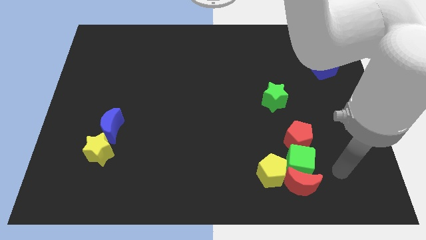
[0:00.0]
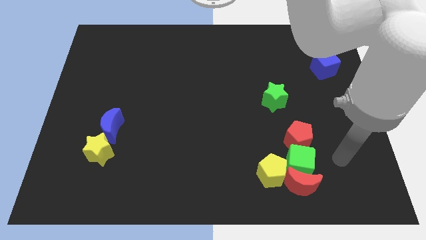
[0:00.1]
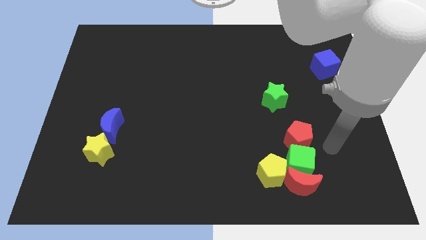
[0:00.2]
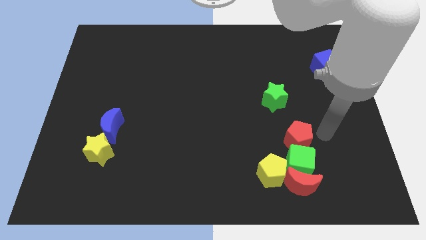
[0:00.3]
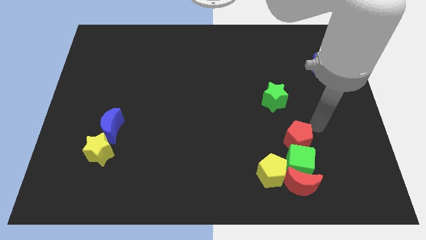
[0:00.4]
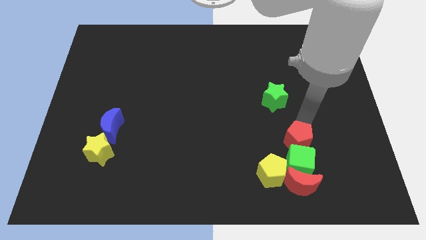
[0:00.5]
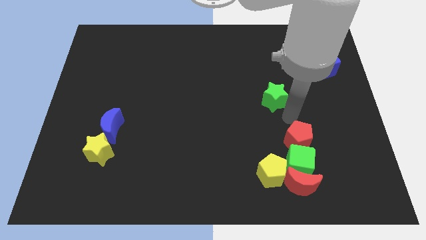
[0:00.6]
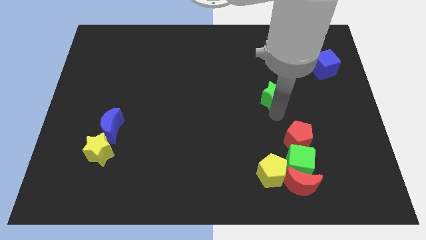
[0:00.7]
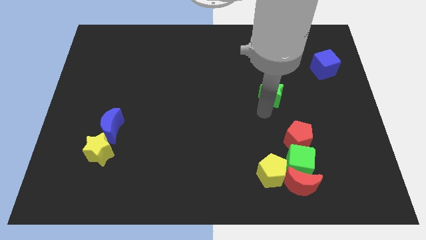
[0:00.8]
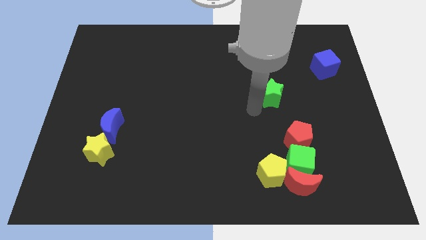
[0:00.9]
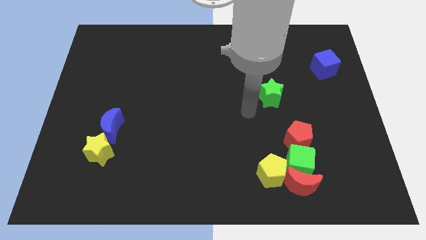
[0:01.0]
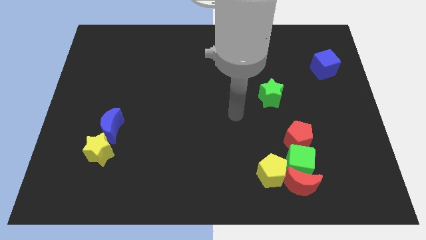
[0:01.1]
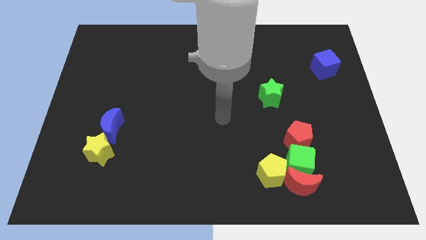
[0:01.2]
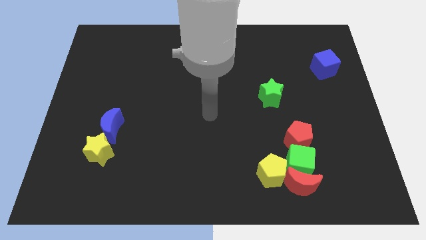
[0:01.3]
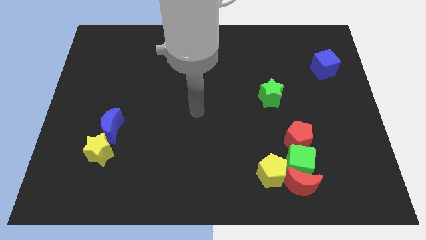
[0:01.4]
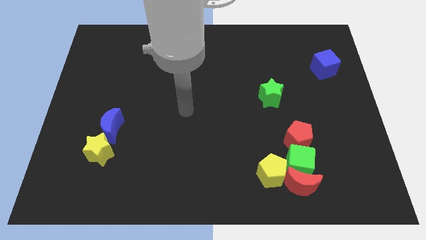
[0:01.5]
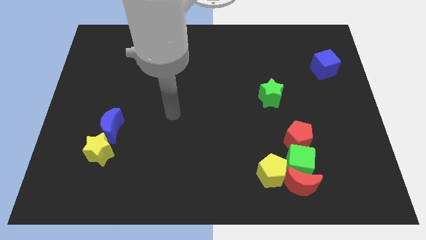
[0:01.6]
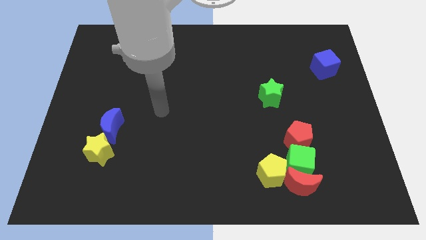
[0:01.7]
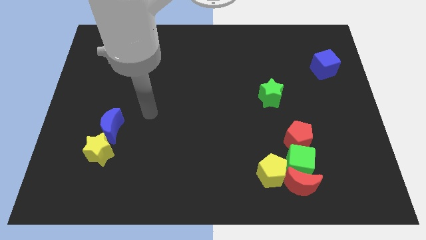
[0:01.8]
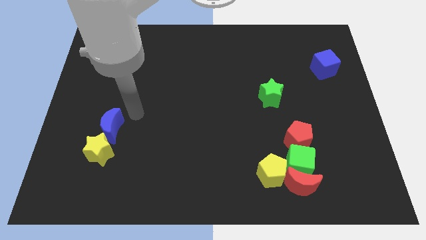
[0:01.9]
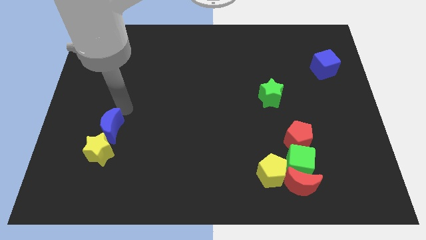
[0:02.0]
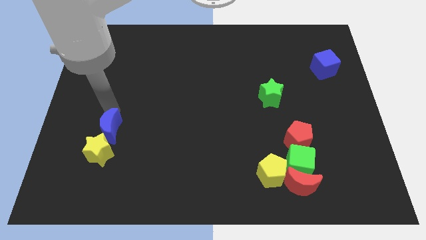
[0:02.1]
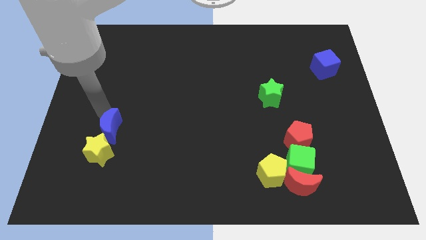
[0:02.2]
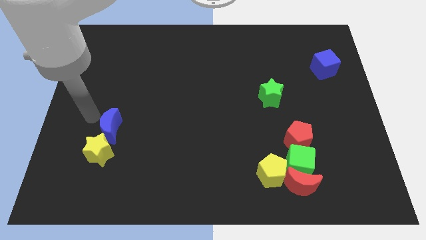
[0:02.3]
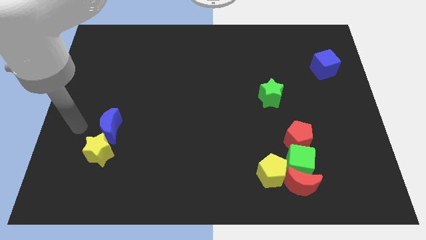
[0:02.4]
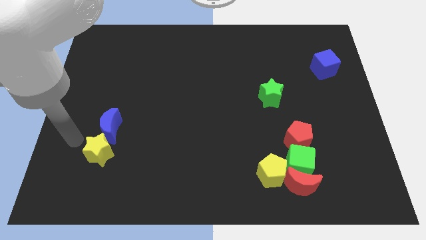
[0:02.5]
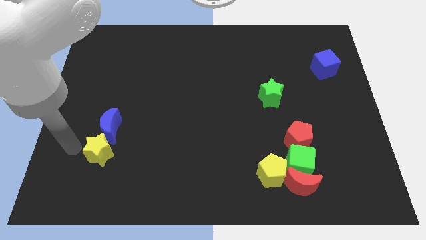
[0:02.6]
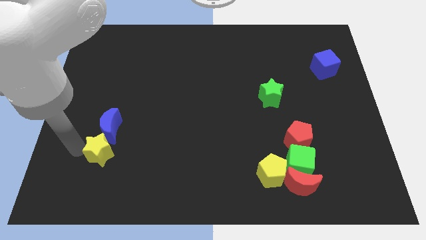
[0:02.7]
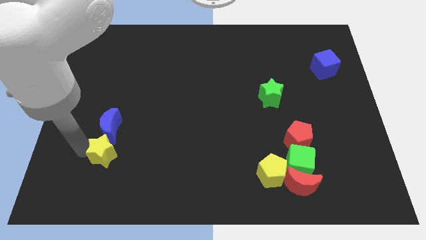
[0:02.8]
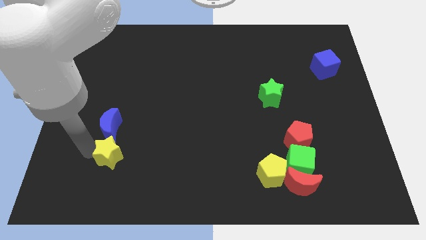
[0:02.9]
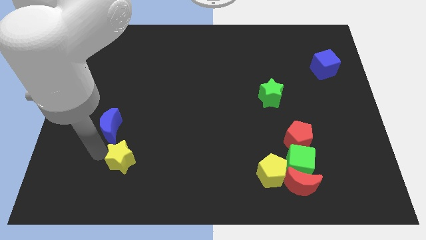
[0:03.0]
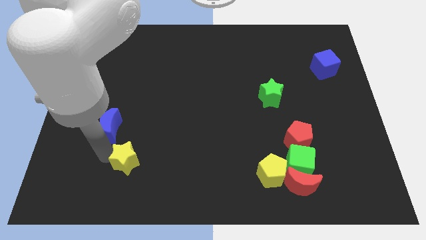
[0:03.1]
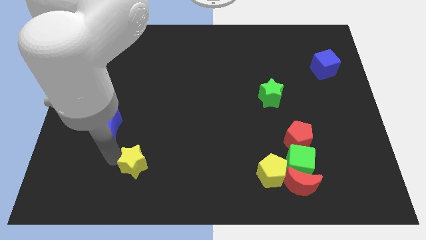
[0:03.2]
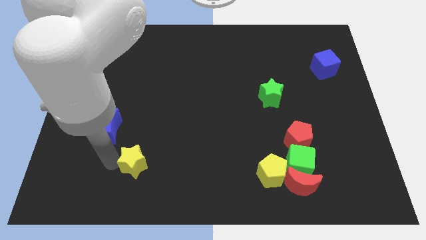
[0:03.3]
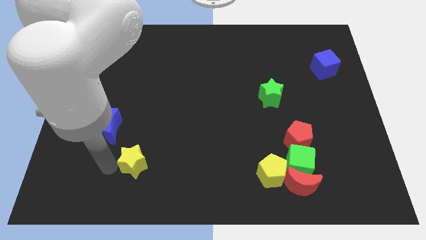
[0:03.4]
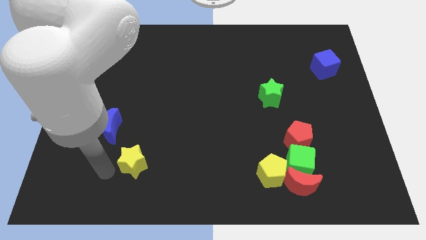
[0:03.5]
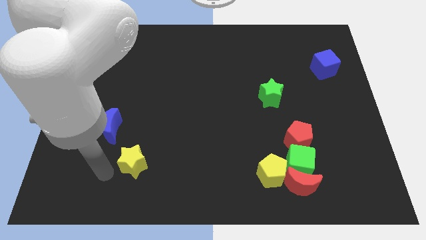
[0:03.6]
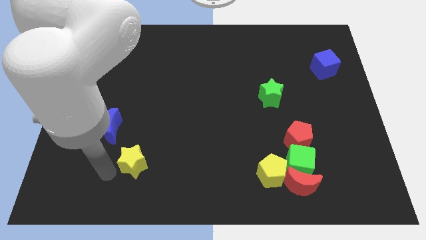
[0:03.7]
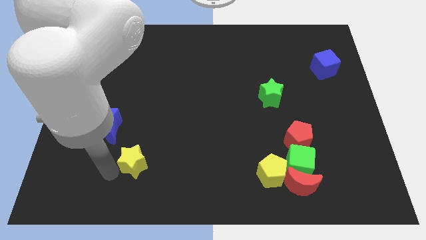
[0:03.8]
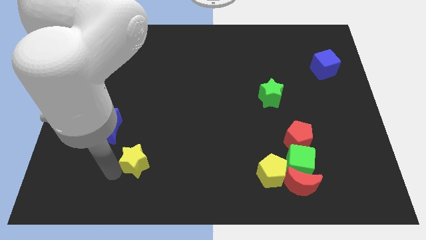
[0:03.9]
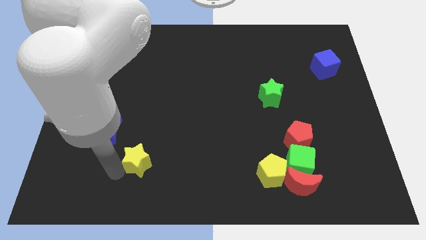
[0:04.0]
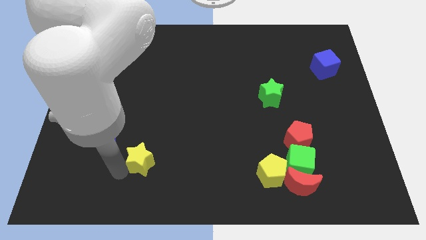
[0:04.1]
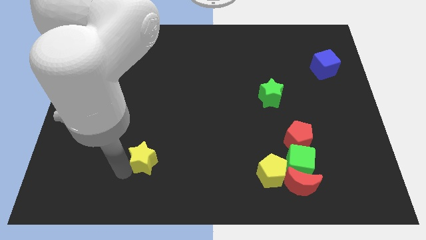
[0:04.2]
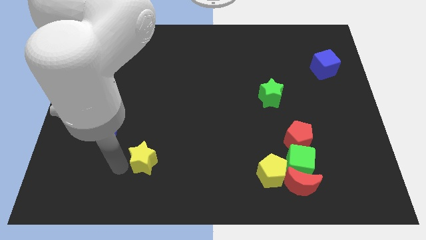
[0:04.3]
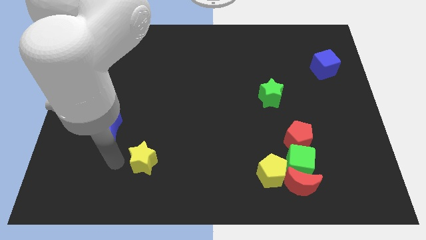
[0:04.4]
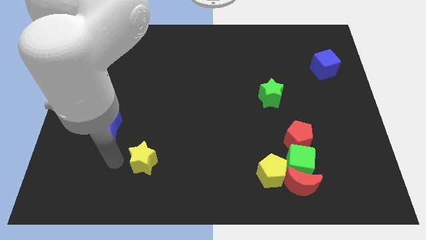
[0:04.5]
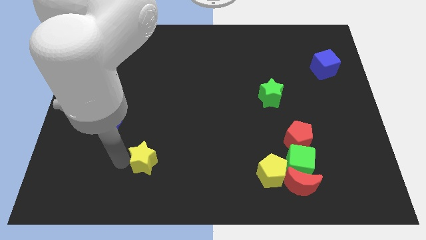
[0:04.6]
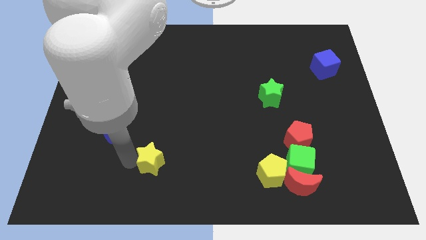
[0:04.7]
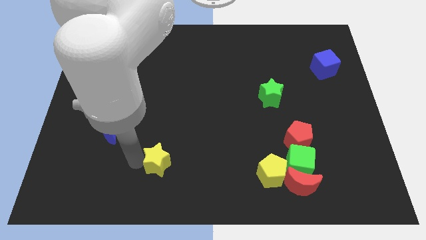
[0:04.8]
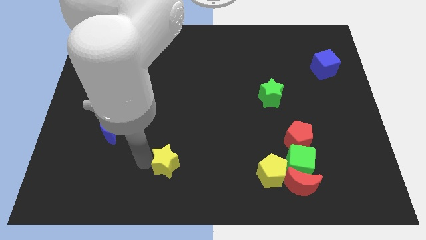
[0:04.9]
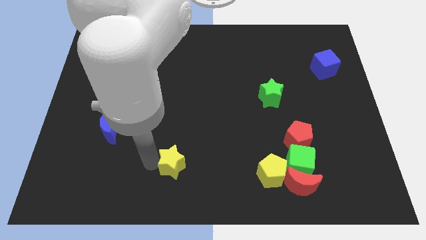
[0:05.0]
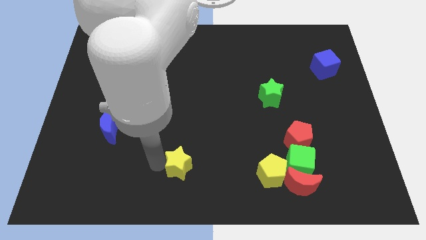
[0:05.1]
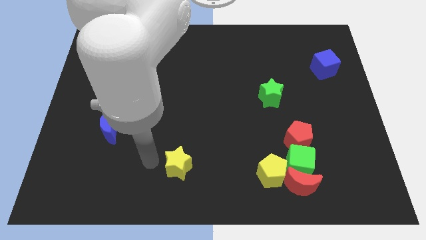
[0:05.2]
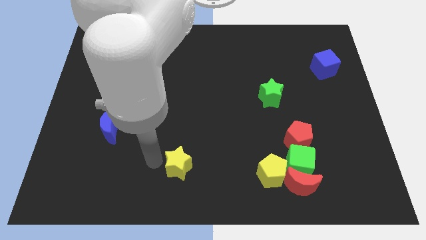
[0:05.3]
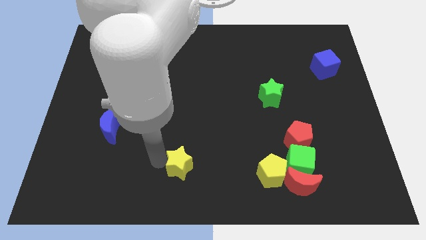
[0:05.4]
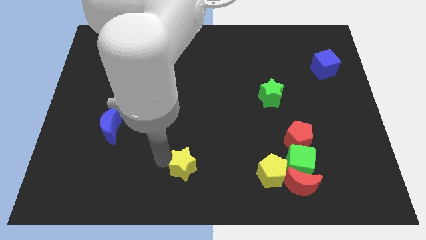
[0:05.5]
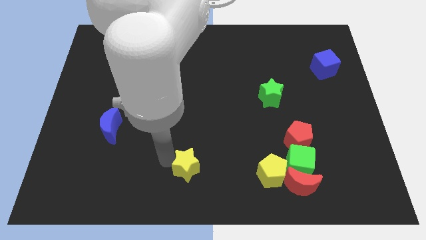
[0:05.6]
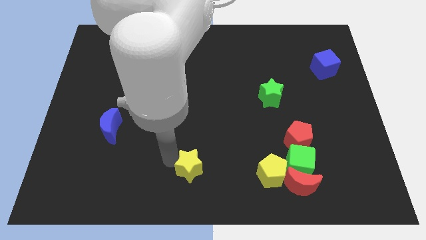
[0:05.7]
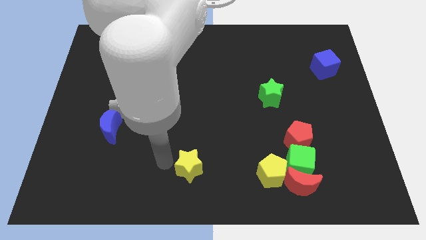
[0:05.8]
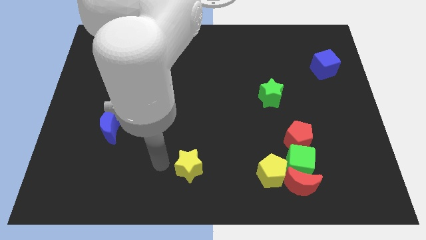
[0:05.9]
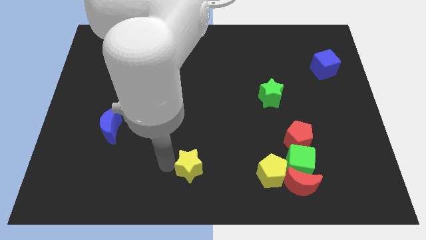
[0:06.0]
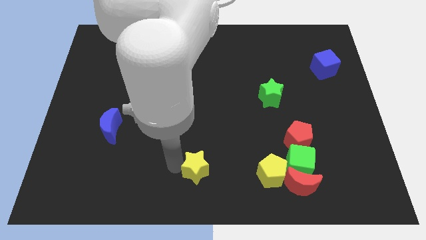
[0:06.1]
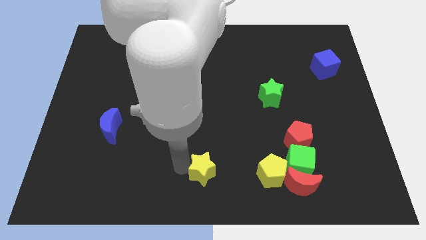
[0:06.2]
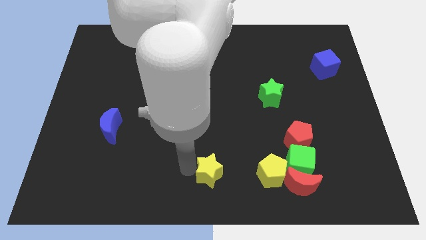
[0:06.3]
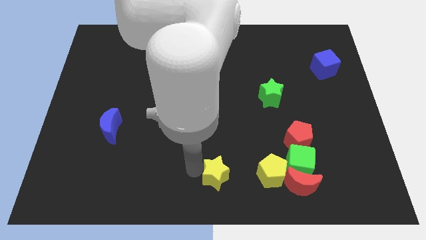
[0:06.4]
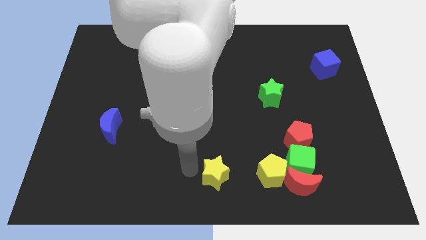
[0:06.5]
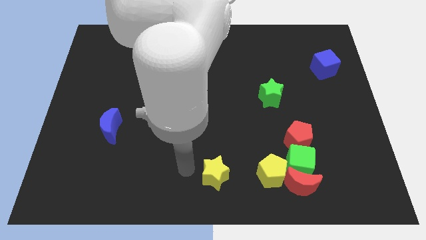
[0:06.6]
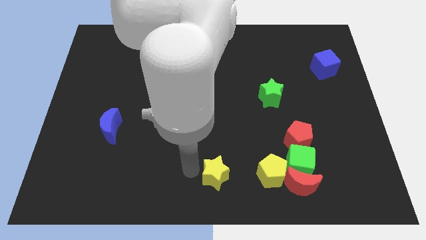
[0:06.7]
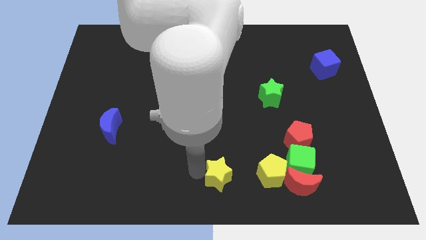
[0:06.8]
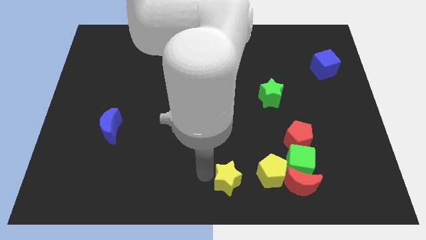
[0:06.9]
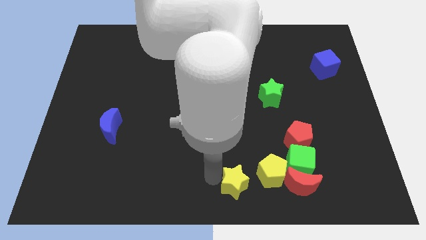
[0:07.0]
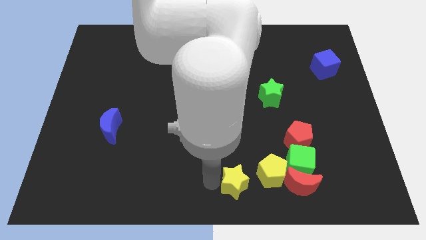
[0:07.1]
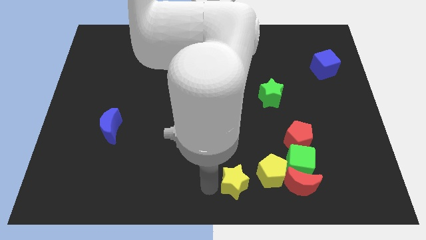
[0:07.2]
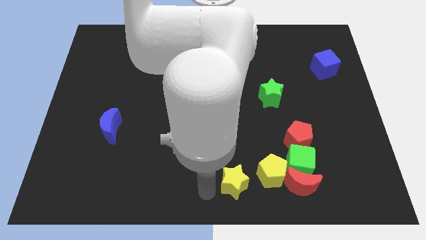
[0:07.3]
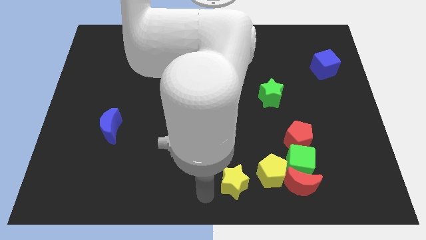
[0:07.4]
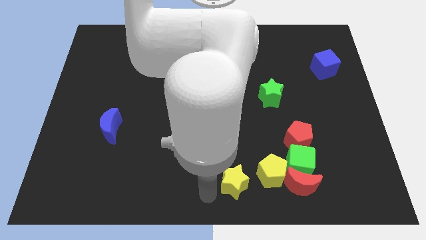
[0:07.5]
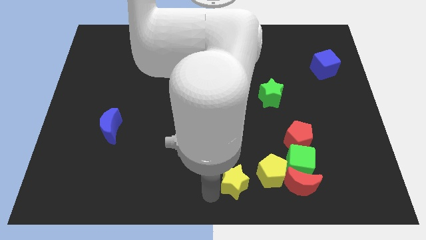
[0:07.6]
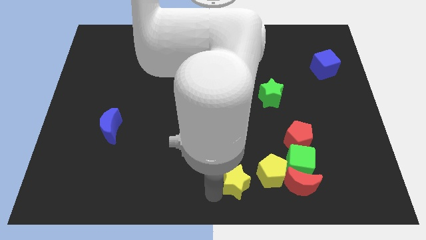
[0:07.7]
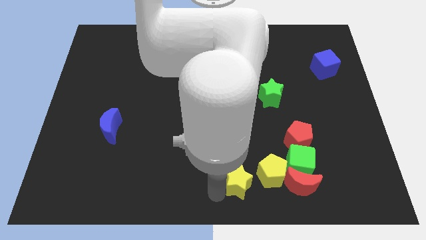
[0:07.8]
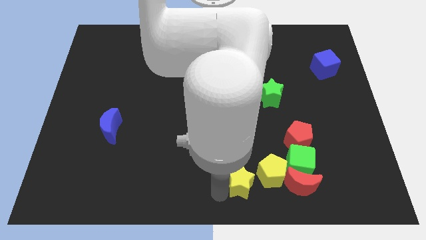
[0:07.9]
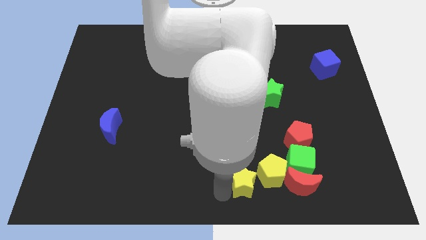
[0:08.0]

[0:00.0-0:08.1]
put the yellow star close to the yellow pentagon
